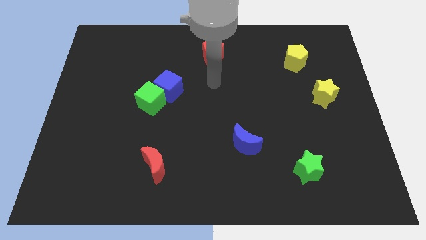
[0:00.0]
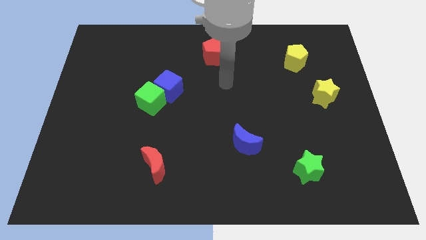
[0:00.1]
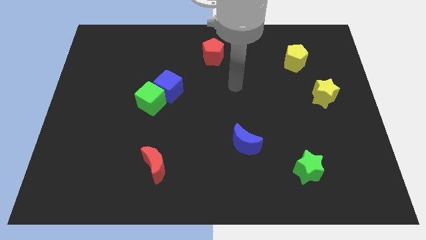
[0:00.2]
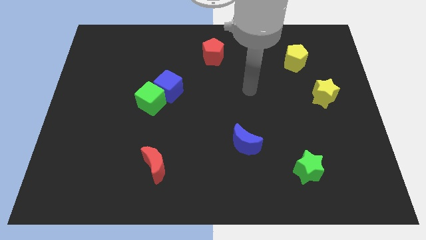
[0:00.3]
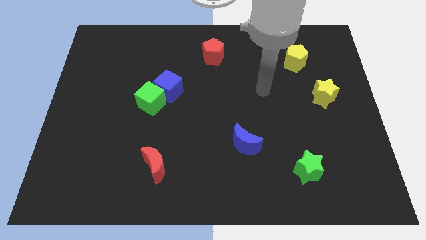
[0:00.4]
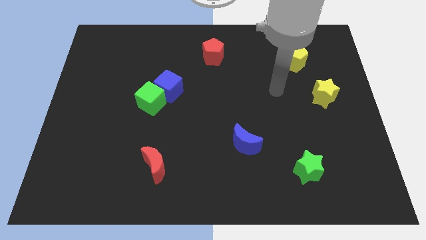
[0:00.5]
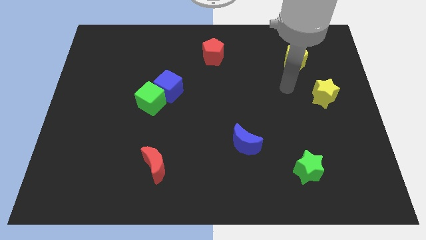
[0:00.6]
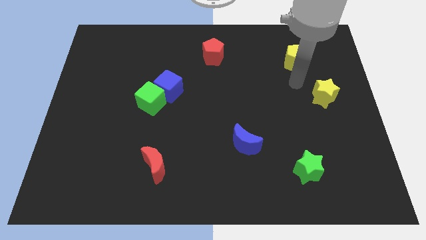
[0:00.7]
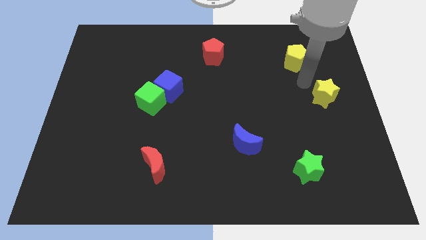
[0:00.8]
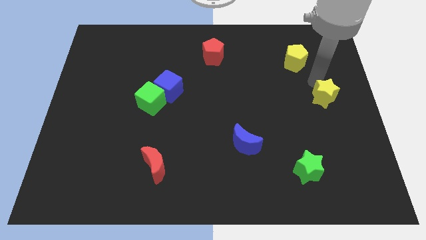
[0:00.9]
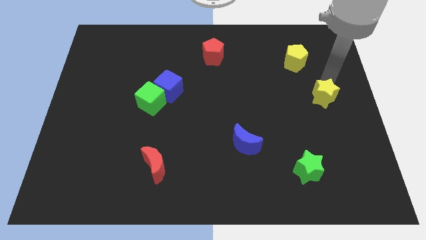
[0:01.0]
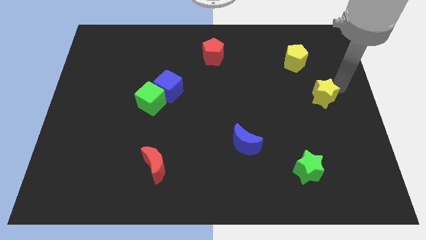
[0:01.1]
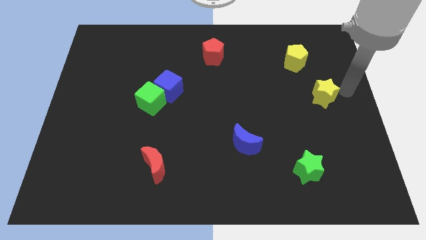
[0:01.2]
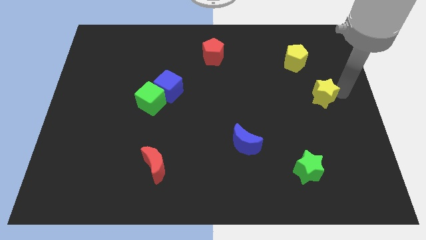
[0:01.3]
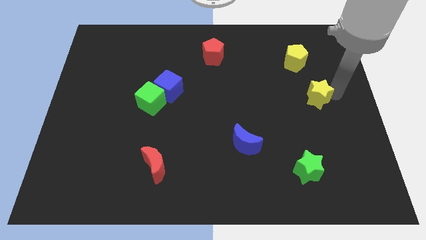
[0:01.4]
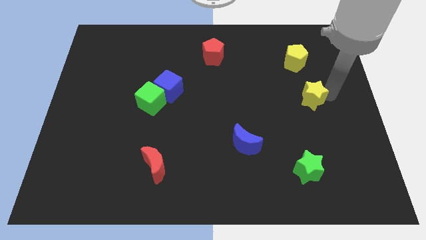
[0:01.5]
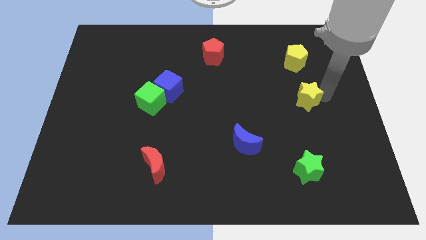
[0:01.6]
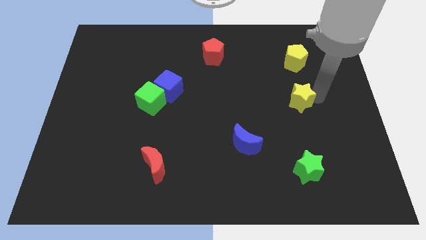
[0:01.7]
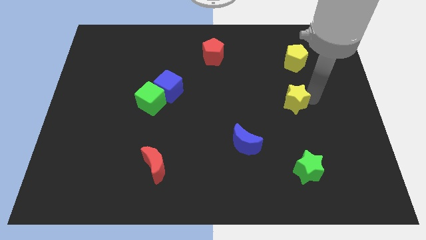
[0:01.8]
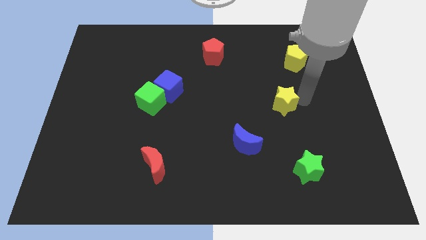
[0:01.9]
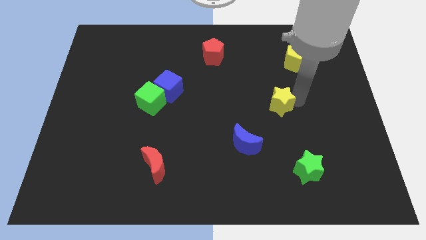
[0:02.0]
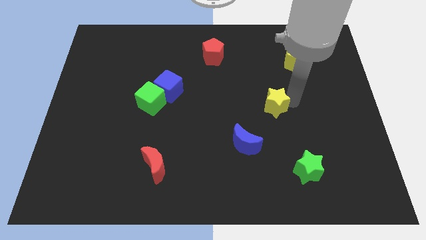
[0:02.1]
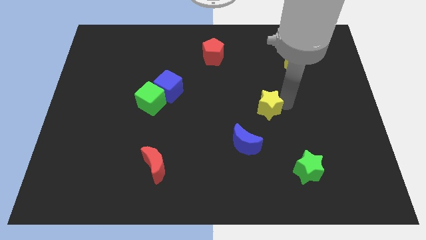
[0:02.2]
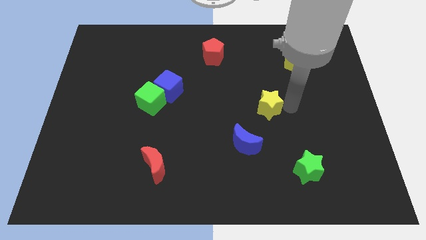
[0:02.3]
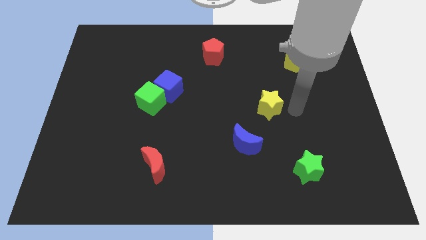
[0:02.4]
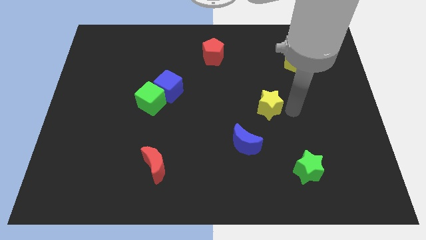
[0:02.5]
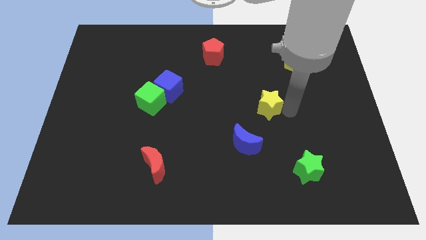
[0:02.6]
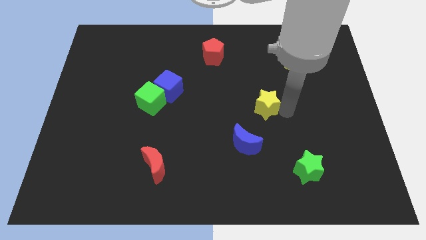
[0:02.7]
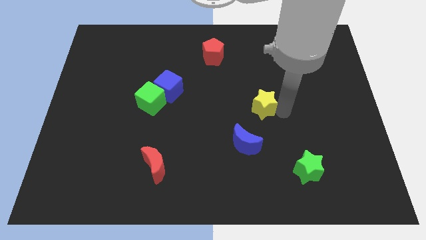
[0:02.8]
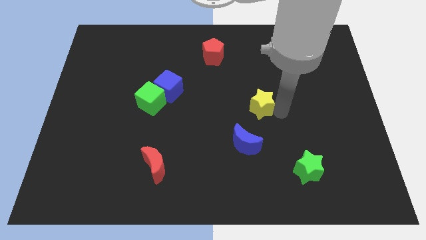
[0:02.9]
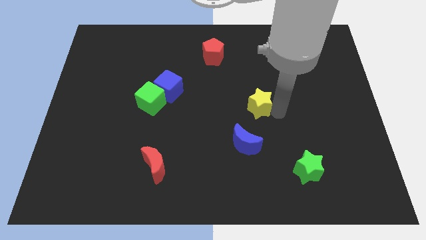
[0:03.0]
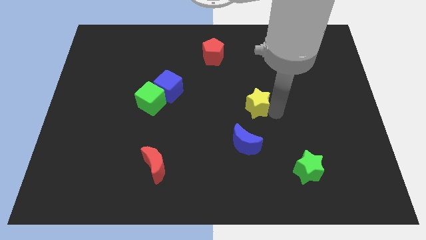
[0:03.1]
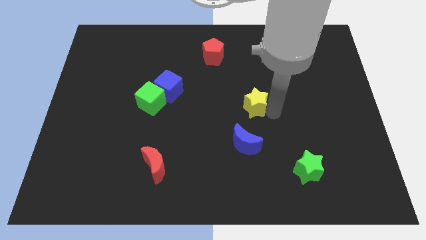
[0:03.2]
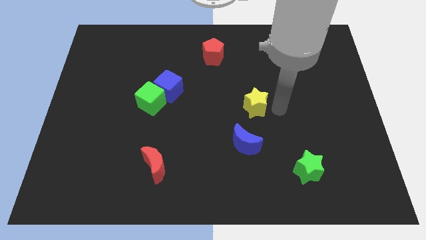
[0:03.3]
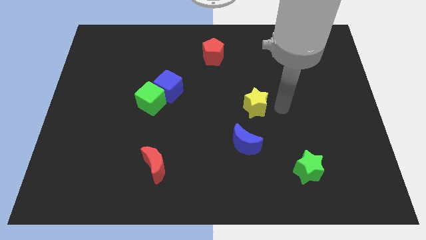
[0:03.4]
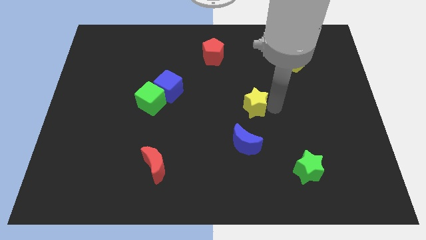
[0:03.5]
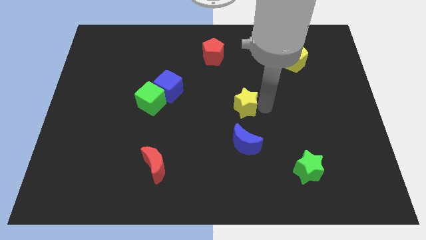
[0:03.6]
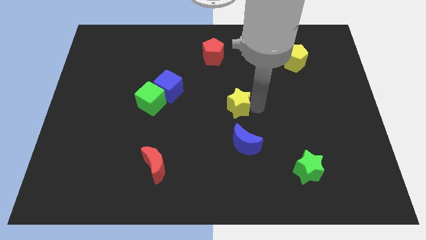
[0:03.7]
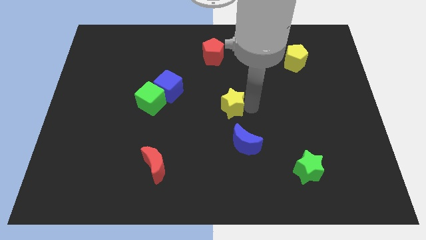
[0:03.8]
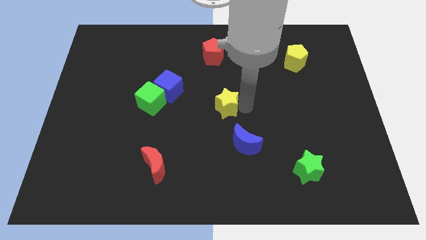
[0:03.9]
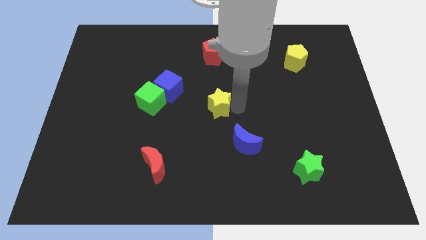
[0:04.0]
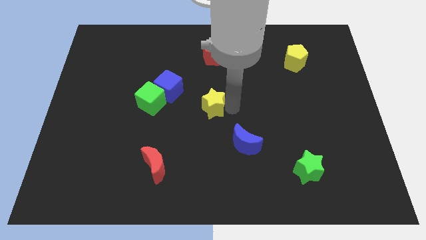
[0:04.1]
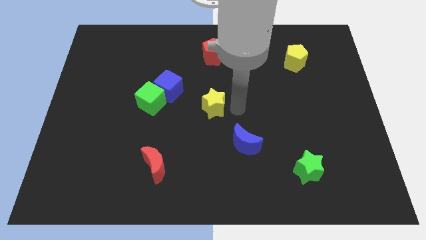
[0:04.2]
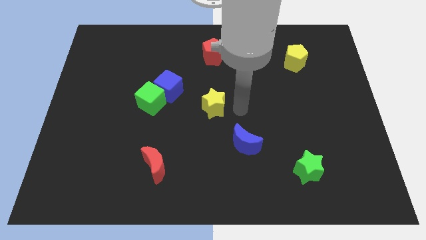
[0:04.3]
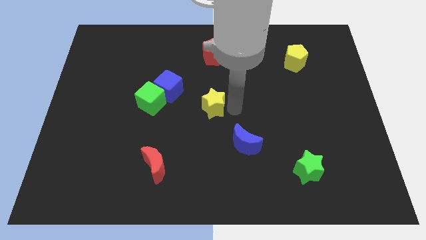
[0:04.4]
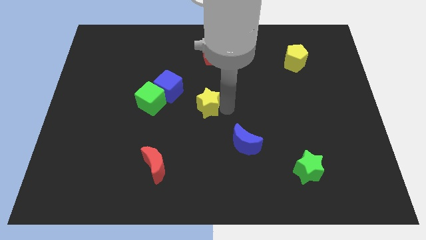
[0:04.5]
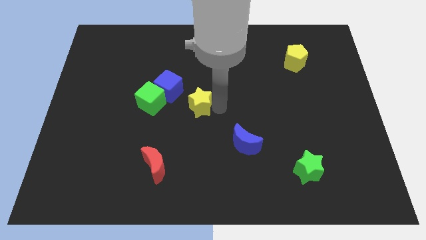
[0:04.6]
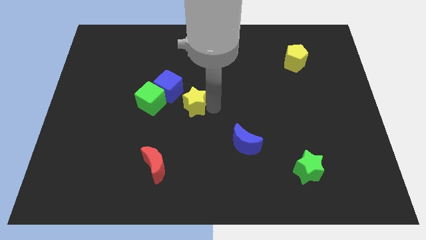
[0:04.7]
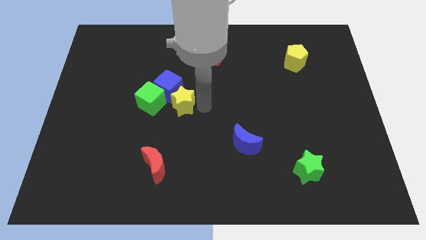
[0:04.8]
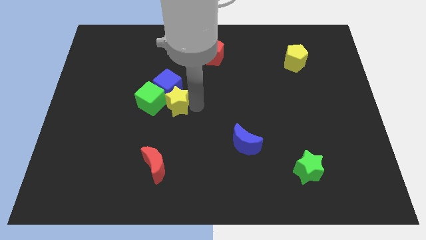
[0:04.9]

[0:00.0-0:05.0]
push the yellow star next to the green cube

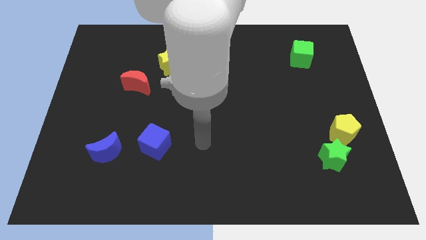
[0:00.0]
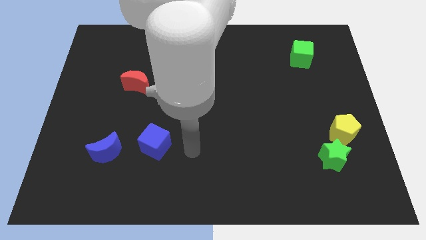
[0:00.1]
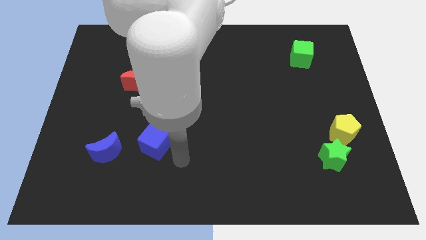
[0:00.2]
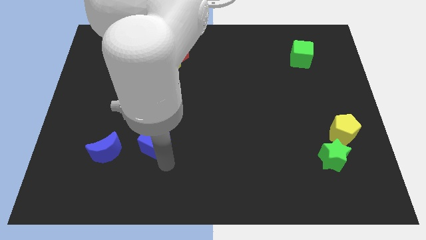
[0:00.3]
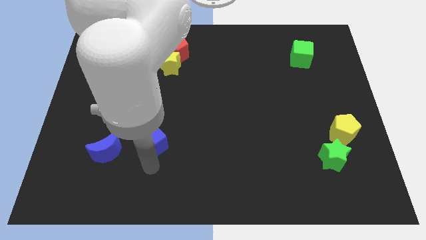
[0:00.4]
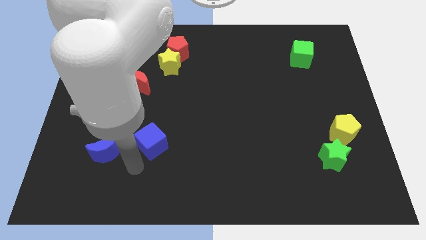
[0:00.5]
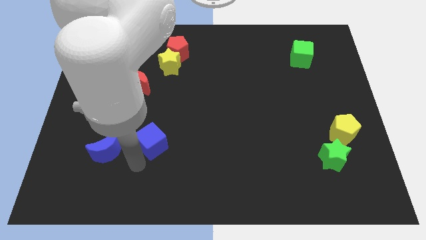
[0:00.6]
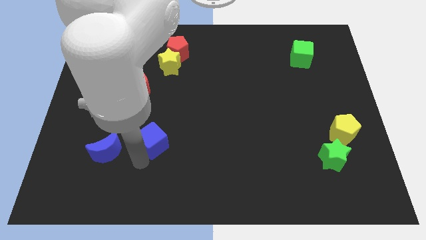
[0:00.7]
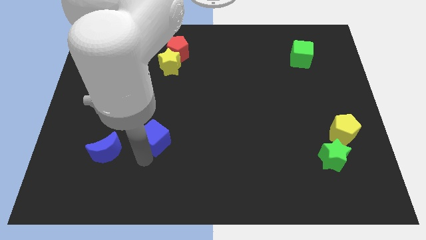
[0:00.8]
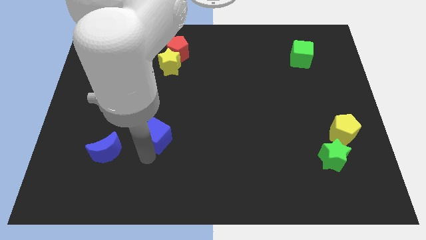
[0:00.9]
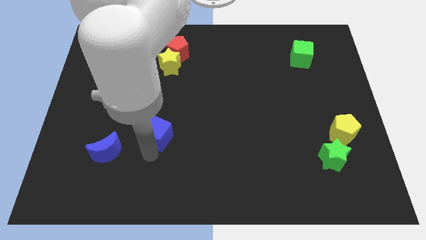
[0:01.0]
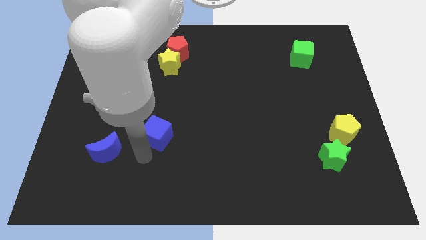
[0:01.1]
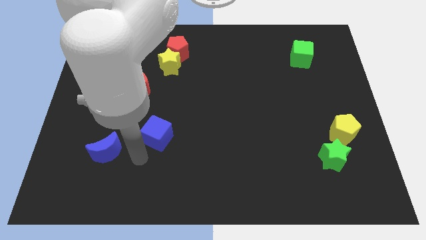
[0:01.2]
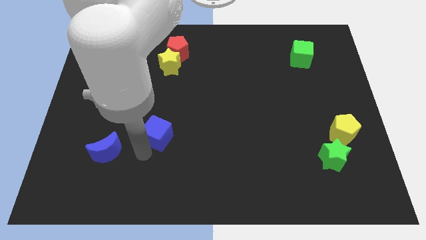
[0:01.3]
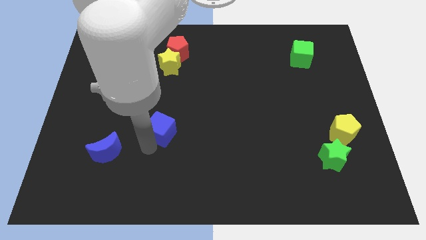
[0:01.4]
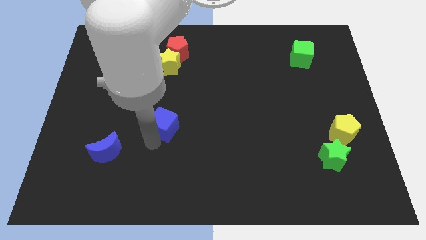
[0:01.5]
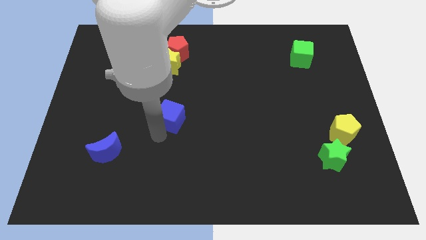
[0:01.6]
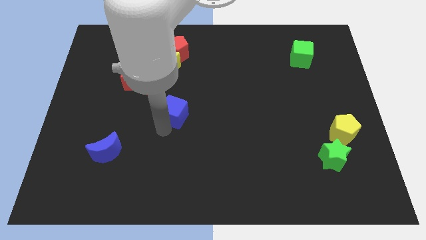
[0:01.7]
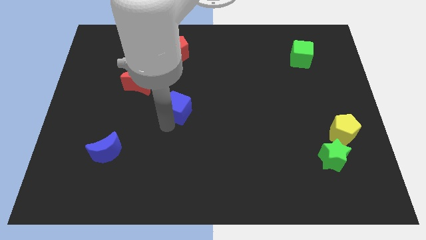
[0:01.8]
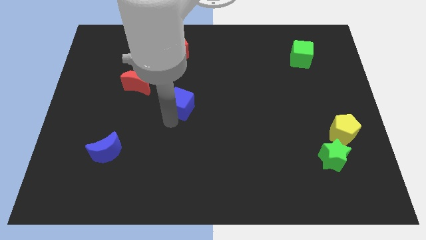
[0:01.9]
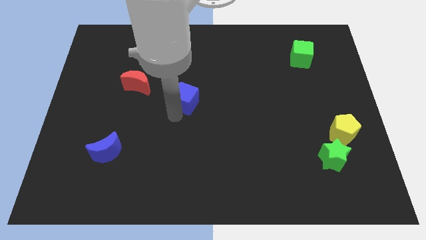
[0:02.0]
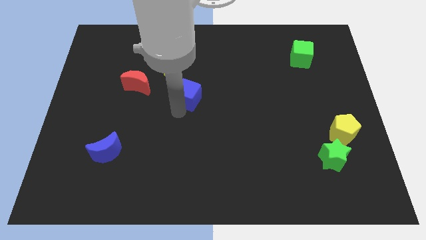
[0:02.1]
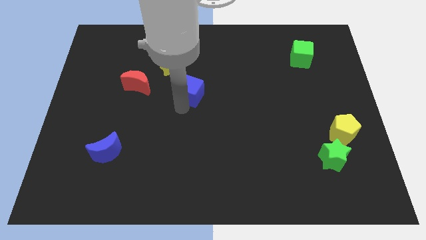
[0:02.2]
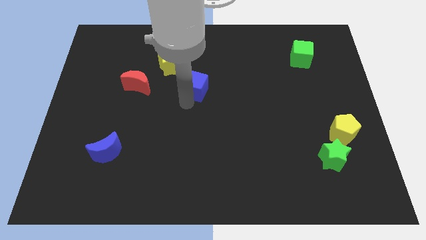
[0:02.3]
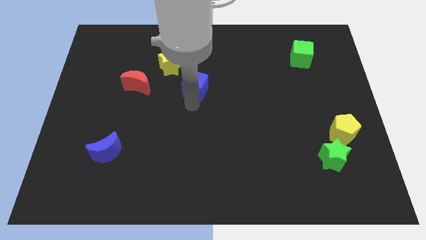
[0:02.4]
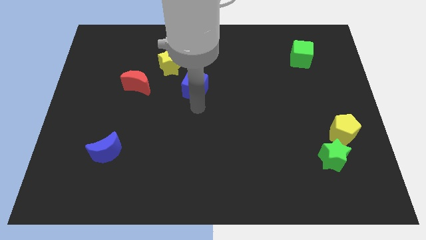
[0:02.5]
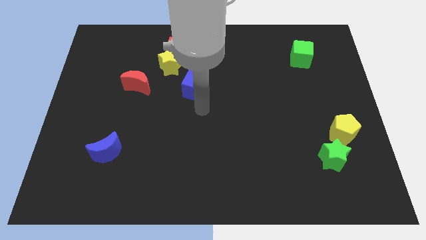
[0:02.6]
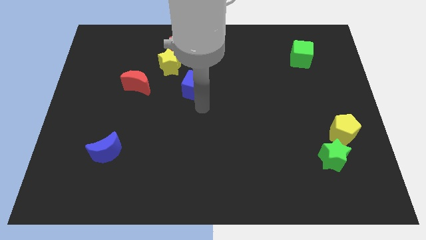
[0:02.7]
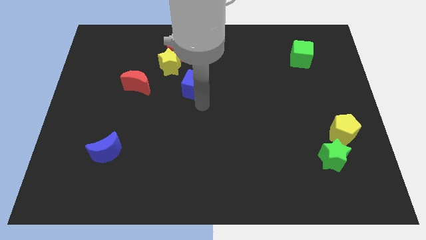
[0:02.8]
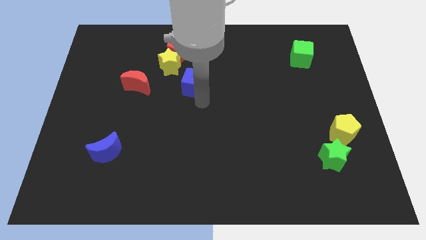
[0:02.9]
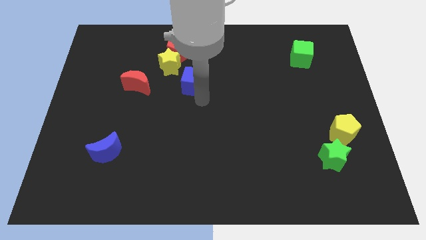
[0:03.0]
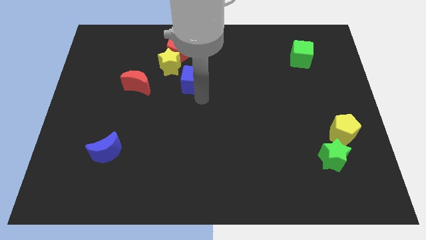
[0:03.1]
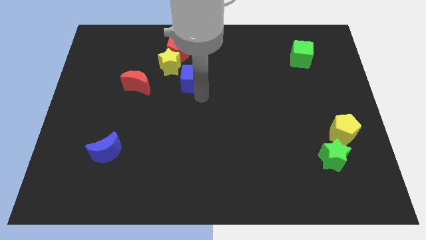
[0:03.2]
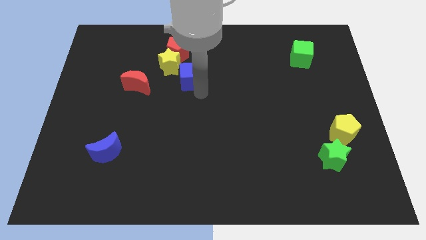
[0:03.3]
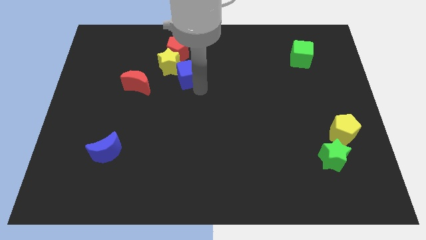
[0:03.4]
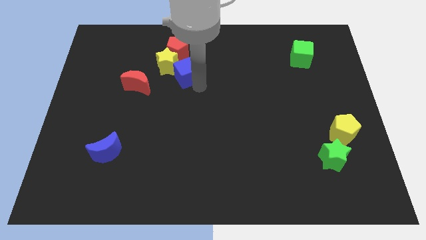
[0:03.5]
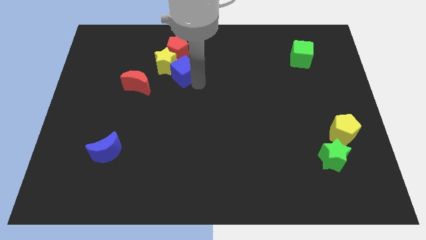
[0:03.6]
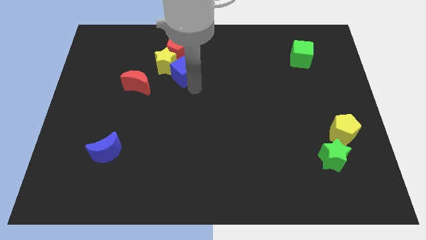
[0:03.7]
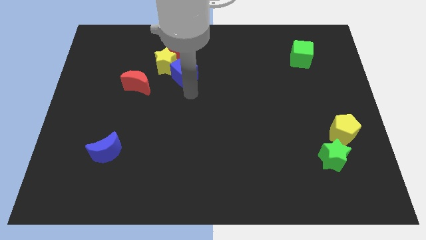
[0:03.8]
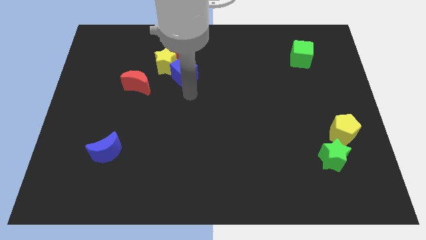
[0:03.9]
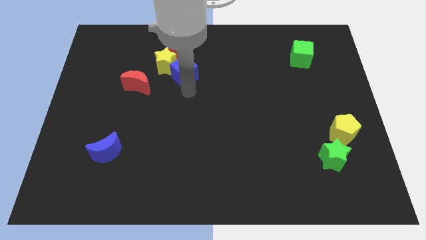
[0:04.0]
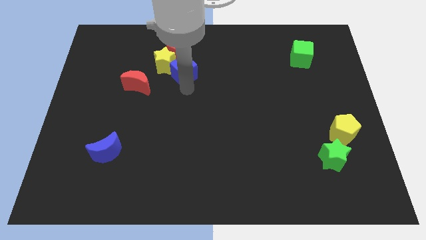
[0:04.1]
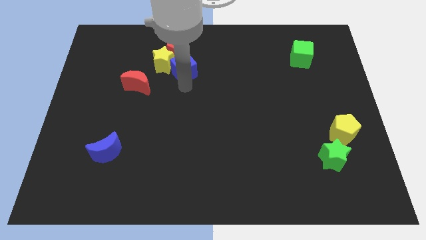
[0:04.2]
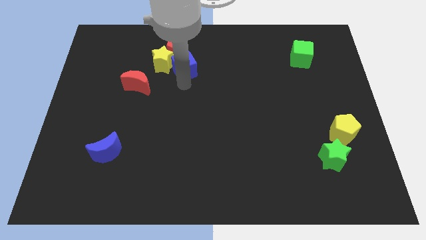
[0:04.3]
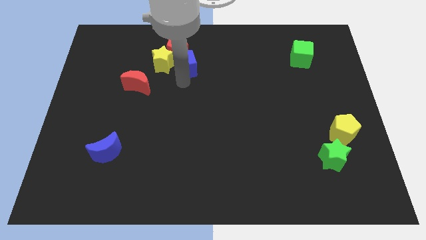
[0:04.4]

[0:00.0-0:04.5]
slide the blue cube next to the red pentagon
